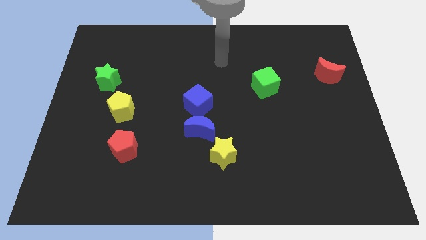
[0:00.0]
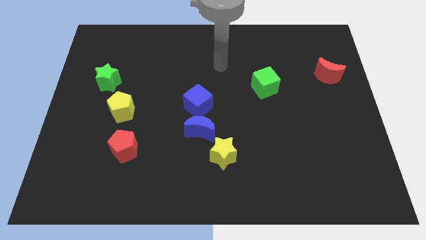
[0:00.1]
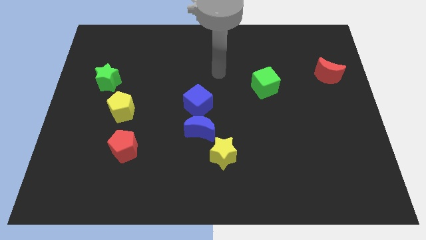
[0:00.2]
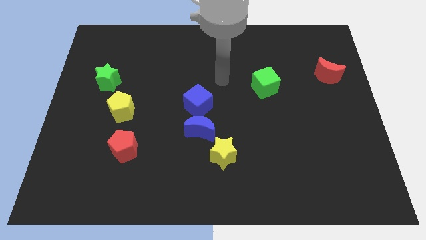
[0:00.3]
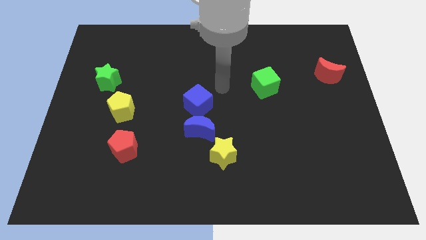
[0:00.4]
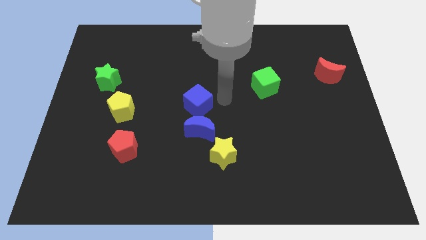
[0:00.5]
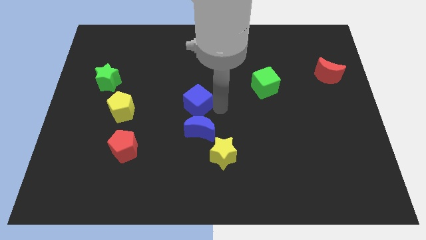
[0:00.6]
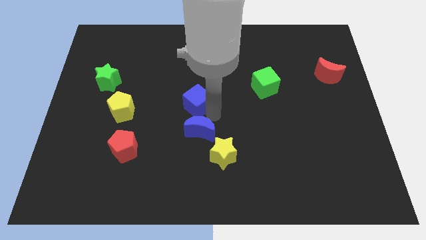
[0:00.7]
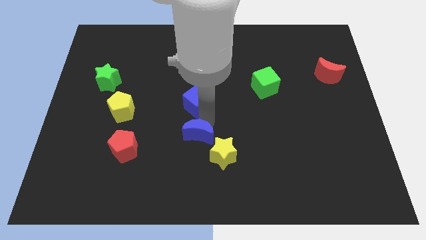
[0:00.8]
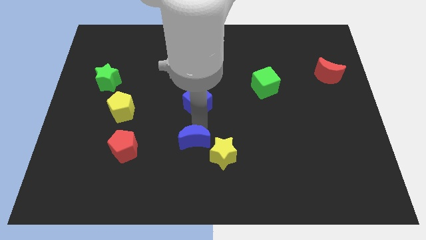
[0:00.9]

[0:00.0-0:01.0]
move the blue cube away from the blue moon

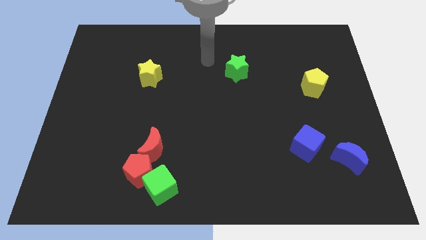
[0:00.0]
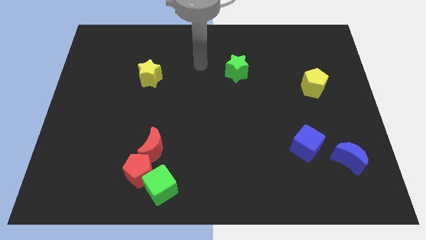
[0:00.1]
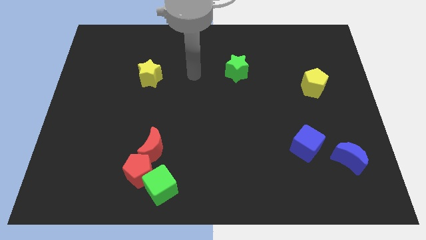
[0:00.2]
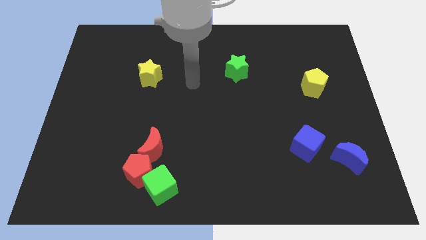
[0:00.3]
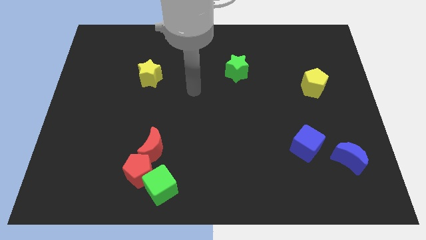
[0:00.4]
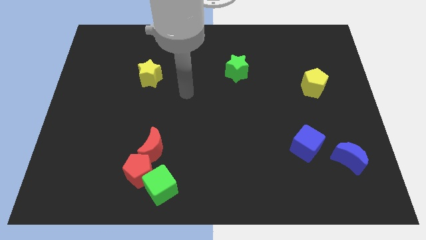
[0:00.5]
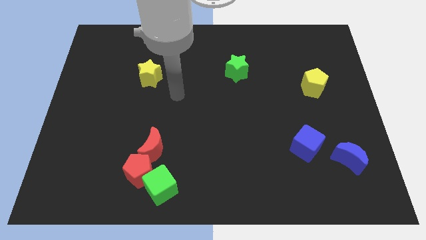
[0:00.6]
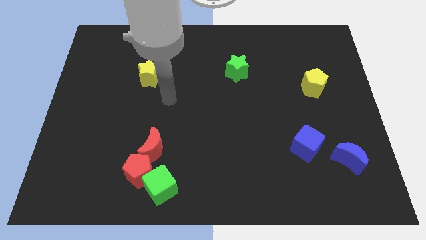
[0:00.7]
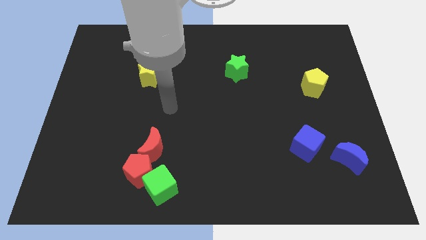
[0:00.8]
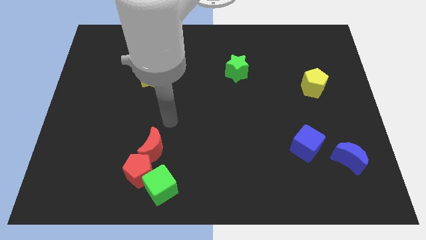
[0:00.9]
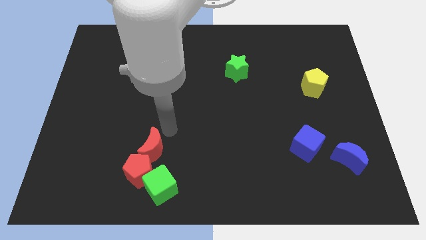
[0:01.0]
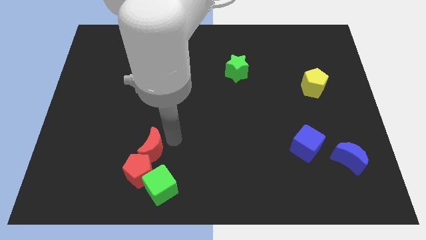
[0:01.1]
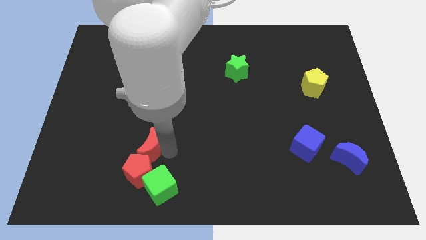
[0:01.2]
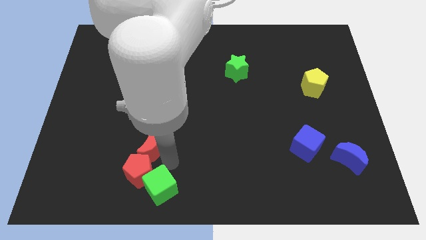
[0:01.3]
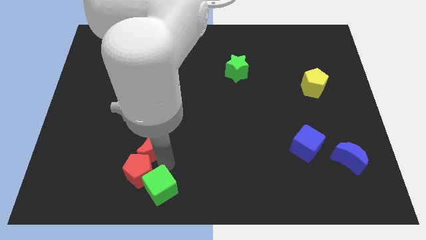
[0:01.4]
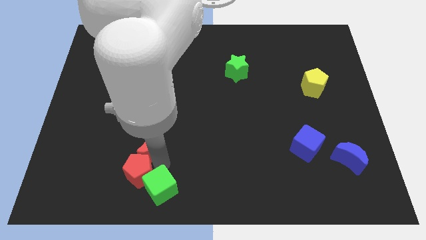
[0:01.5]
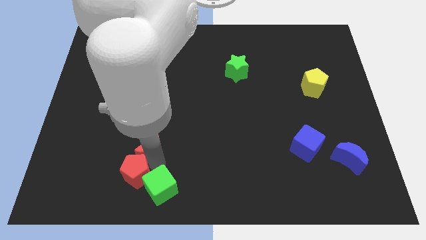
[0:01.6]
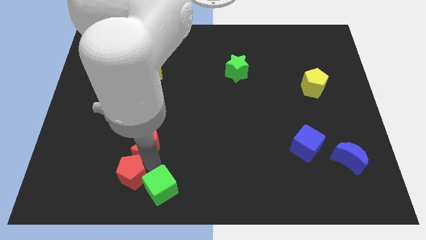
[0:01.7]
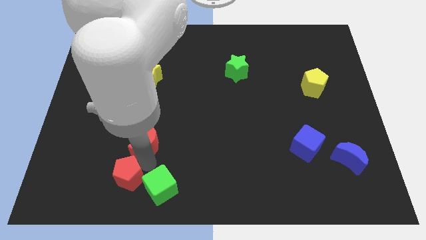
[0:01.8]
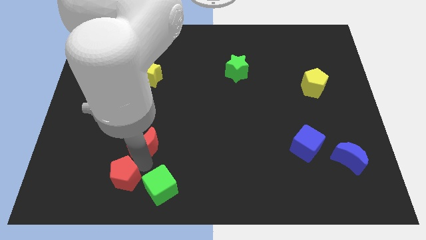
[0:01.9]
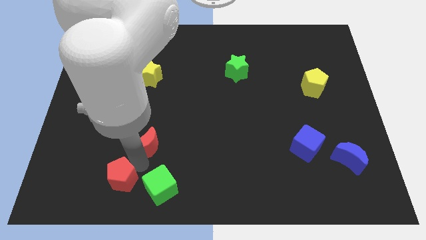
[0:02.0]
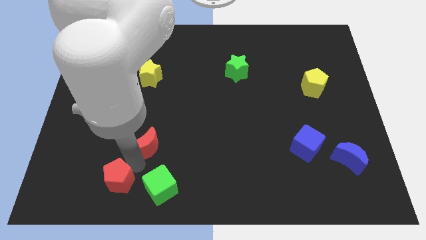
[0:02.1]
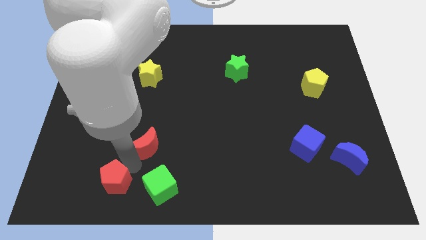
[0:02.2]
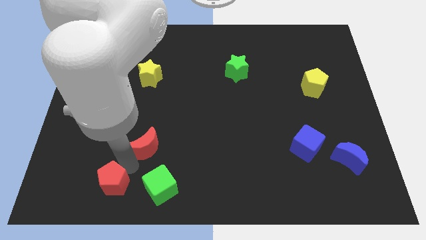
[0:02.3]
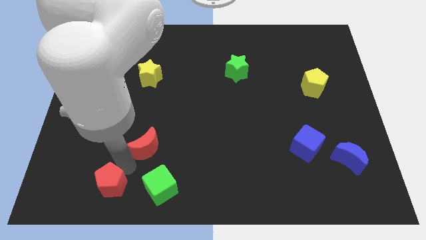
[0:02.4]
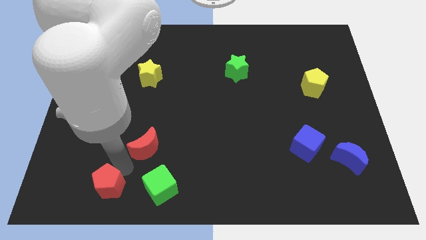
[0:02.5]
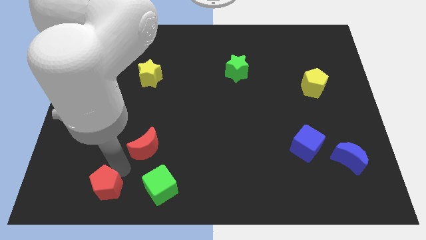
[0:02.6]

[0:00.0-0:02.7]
pull the red pentagon apart from the green cube and red moon

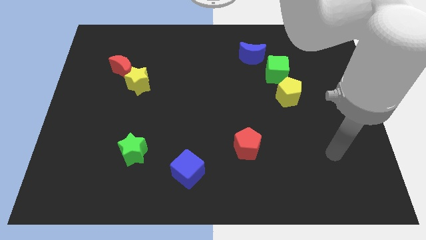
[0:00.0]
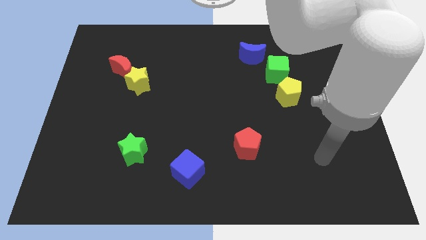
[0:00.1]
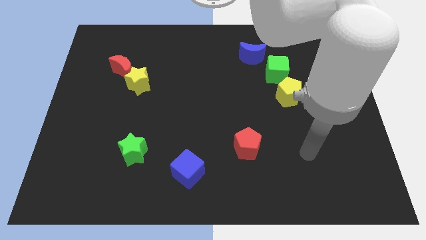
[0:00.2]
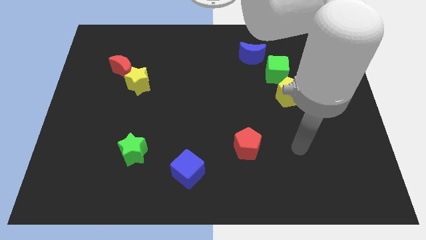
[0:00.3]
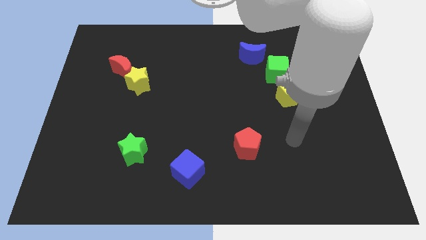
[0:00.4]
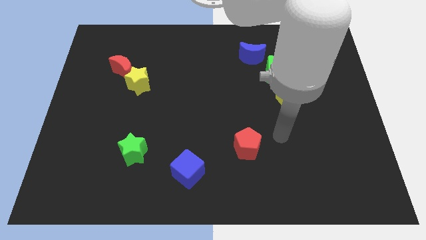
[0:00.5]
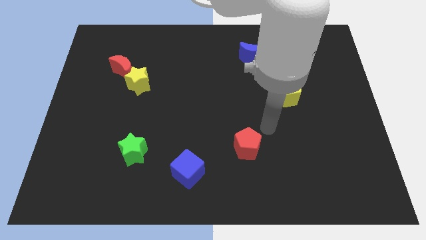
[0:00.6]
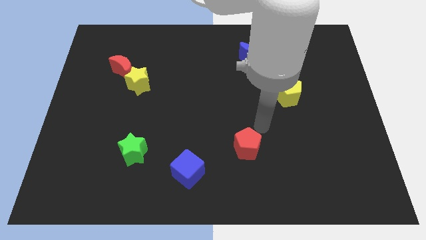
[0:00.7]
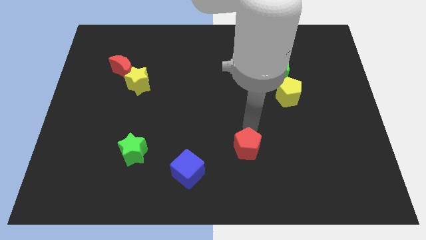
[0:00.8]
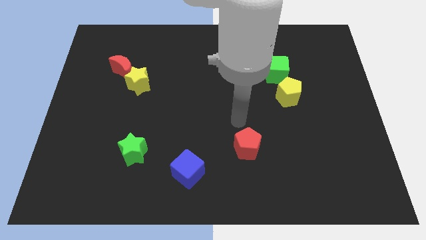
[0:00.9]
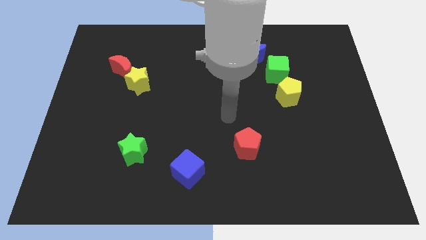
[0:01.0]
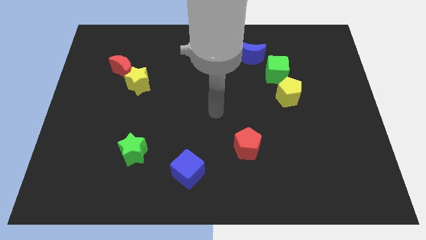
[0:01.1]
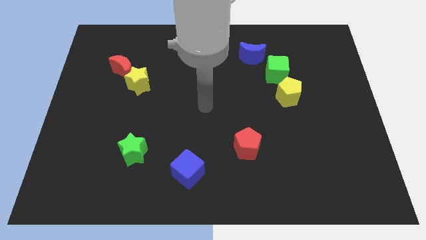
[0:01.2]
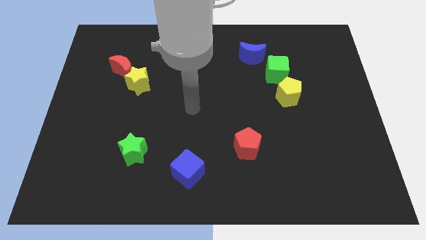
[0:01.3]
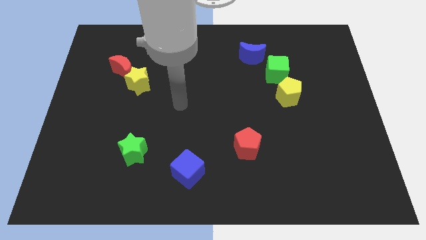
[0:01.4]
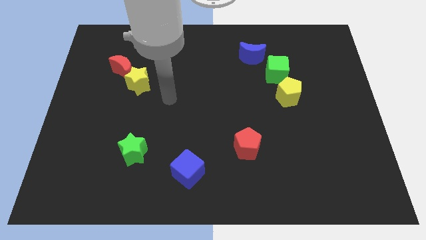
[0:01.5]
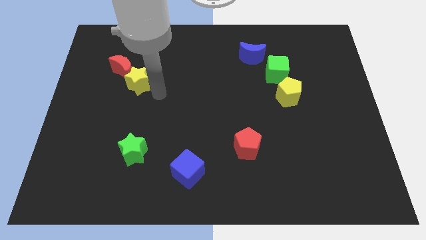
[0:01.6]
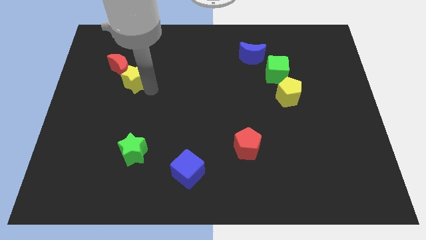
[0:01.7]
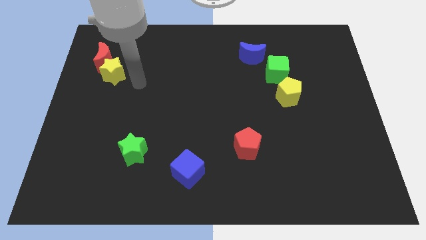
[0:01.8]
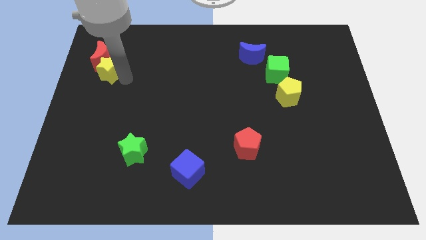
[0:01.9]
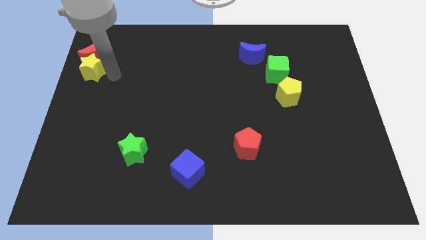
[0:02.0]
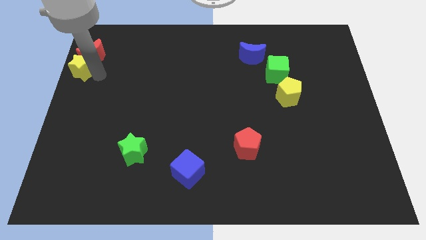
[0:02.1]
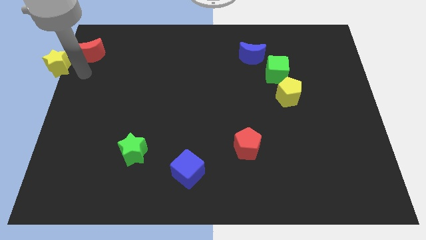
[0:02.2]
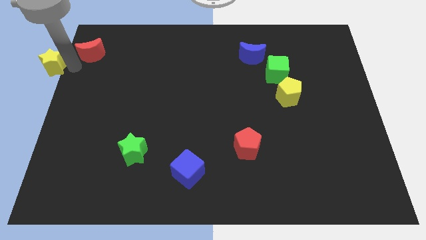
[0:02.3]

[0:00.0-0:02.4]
separate the red moon from the yellow star

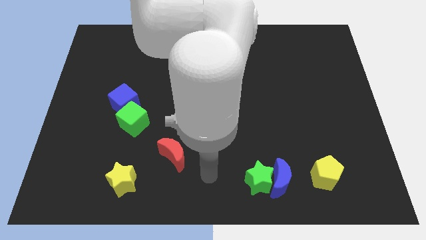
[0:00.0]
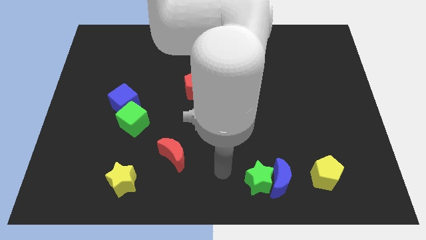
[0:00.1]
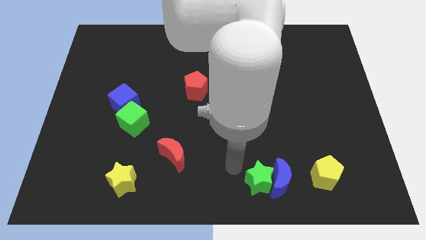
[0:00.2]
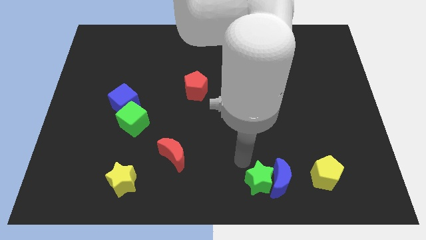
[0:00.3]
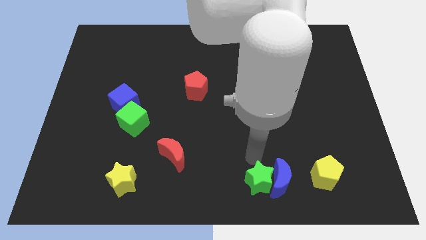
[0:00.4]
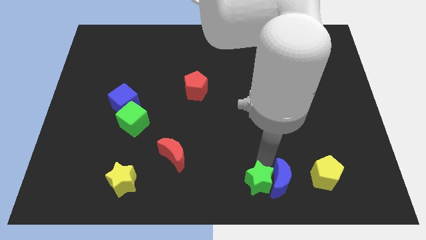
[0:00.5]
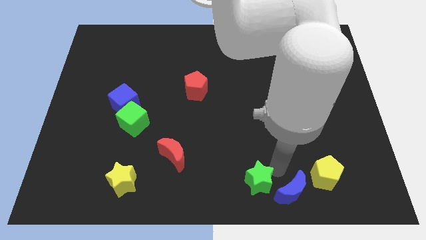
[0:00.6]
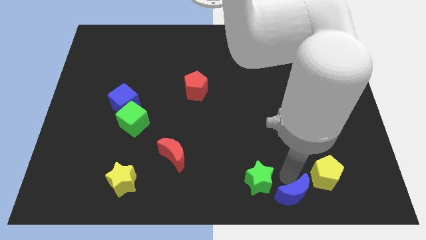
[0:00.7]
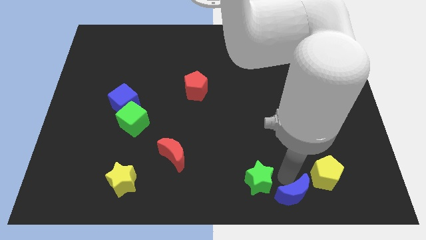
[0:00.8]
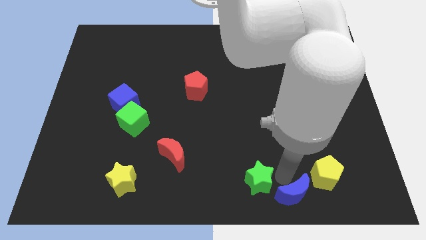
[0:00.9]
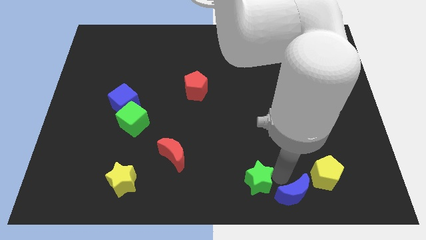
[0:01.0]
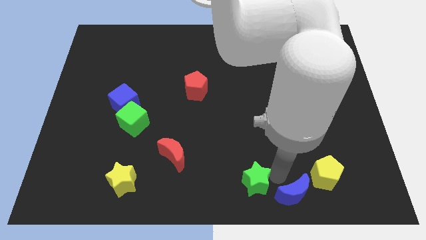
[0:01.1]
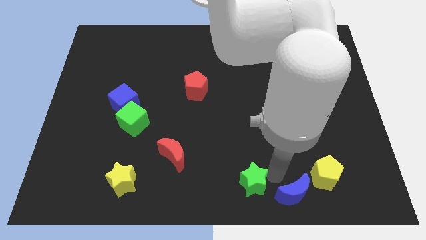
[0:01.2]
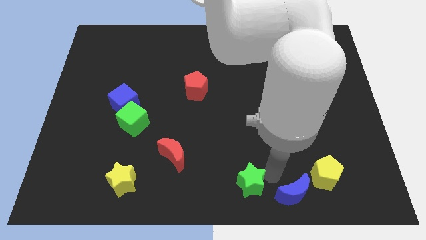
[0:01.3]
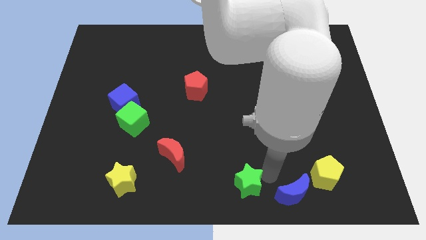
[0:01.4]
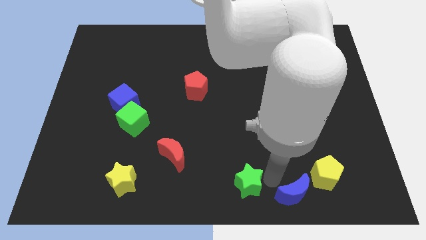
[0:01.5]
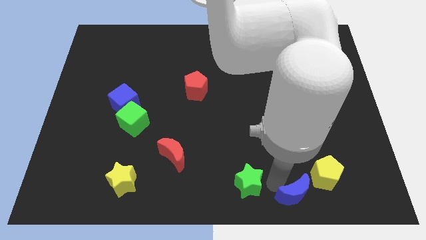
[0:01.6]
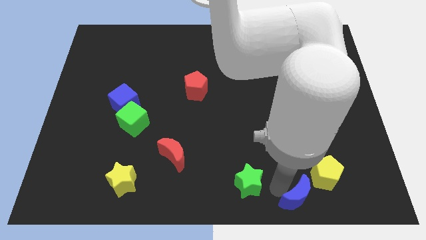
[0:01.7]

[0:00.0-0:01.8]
move the green star away from the blue moon

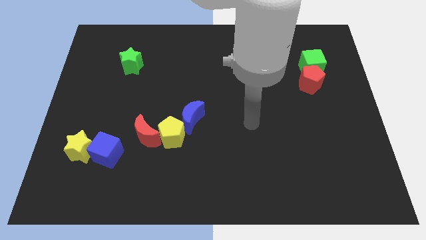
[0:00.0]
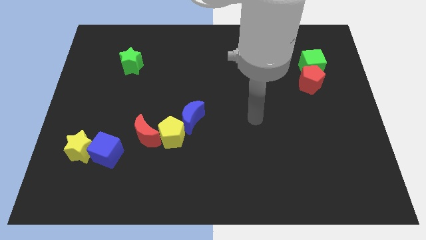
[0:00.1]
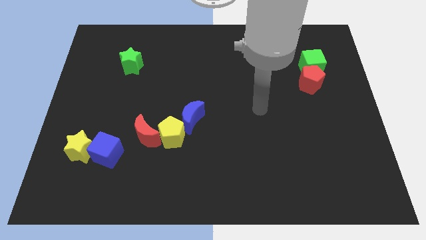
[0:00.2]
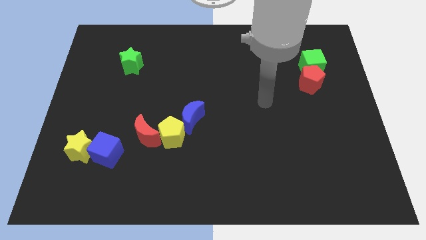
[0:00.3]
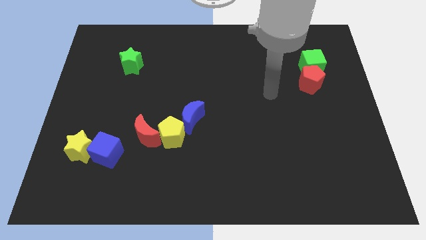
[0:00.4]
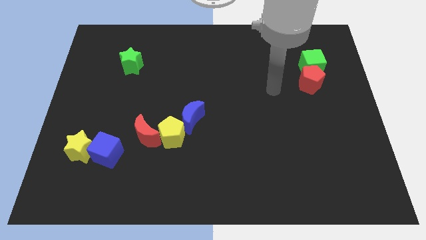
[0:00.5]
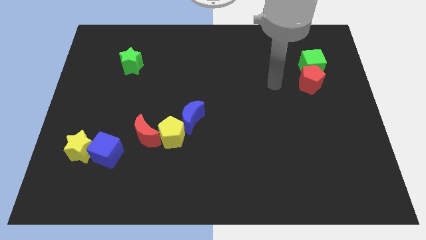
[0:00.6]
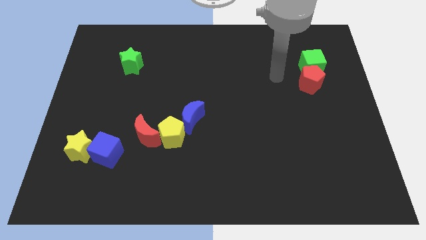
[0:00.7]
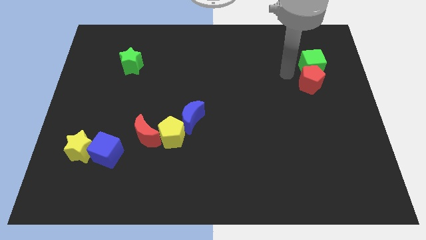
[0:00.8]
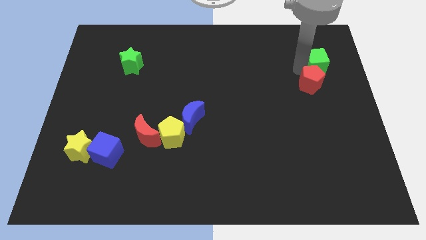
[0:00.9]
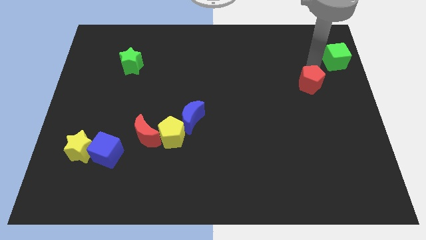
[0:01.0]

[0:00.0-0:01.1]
pull the red pentagon apart from the green cube

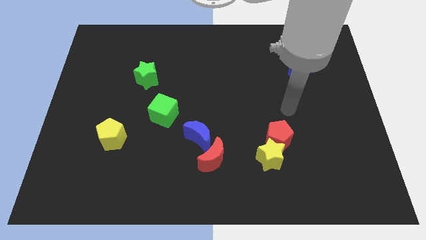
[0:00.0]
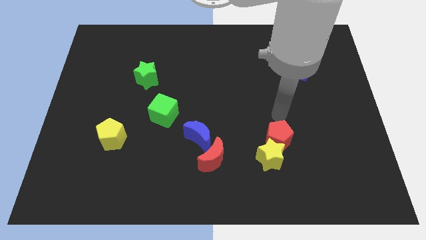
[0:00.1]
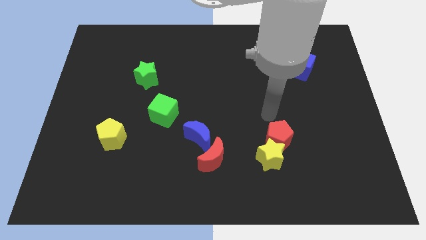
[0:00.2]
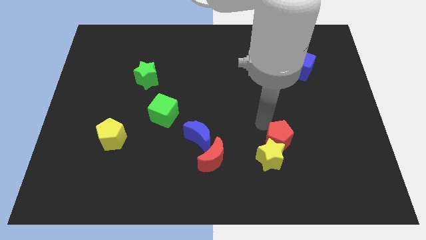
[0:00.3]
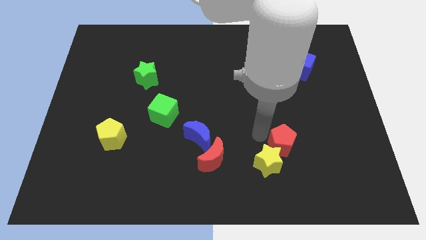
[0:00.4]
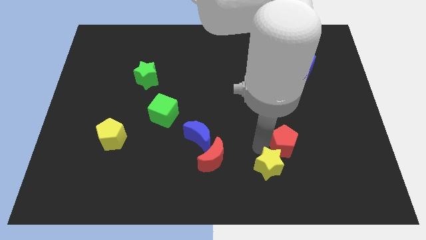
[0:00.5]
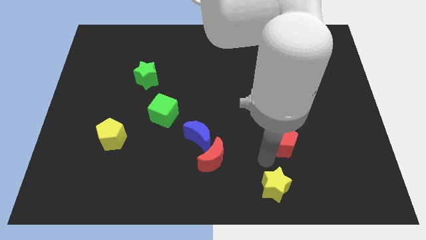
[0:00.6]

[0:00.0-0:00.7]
pull the red pentagon apart from the yellow star
